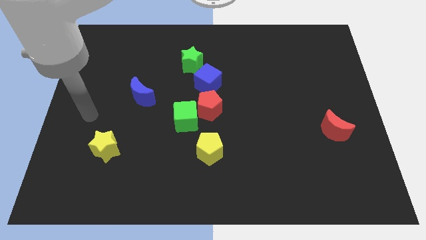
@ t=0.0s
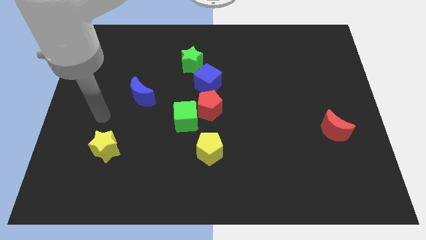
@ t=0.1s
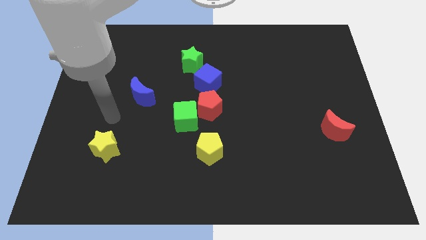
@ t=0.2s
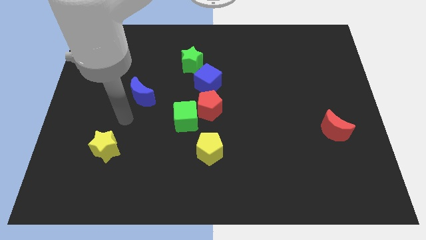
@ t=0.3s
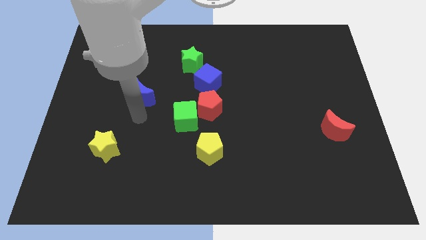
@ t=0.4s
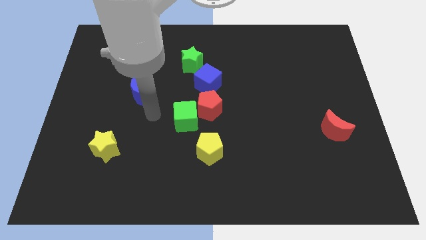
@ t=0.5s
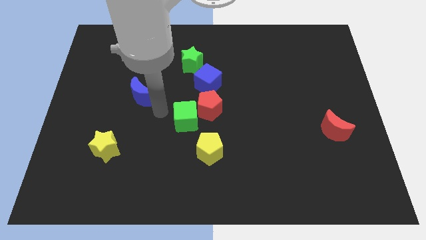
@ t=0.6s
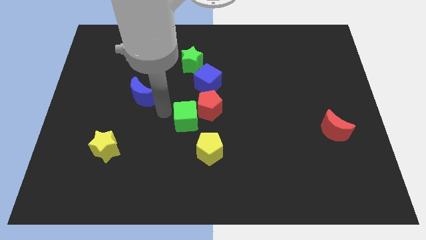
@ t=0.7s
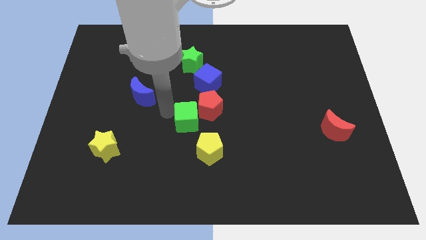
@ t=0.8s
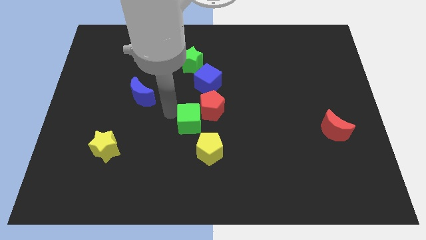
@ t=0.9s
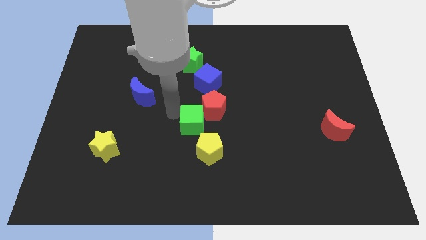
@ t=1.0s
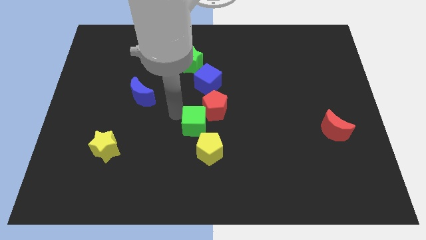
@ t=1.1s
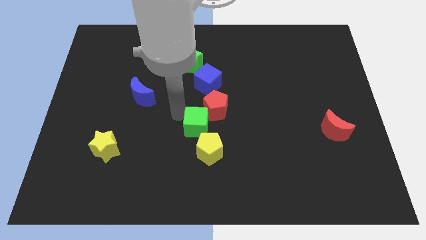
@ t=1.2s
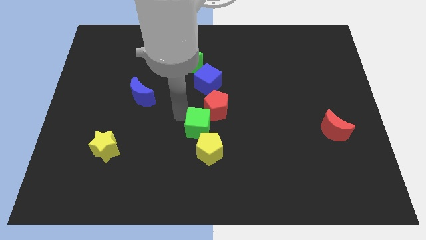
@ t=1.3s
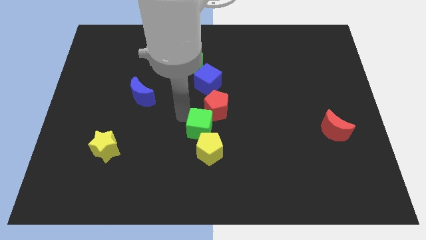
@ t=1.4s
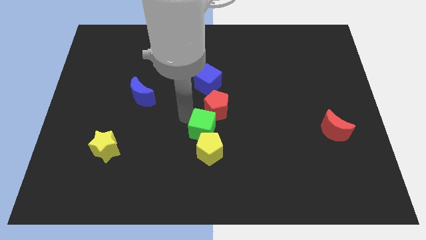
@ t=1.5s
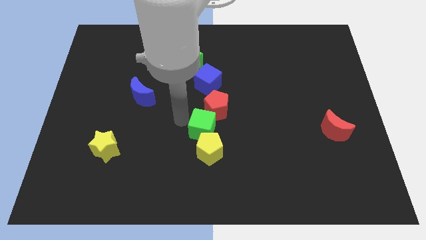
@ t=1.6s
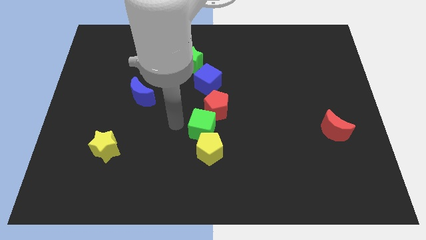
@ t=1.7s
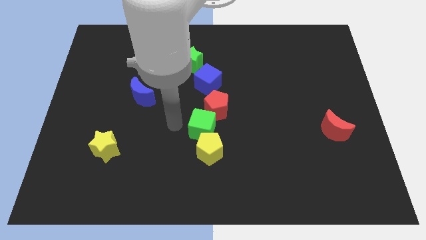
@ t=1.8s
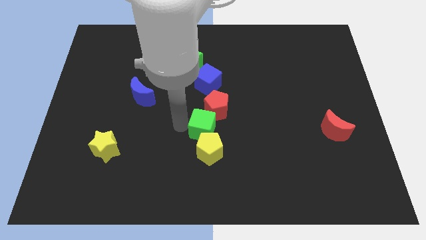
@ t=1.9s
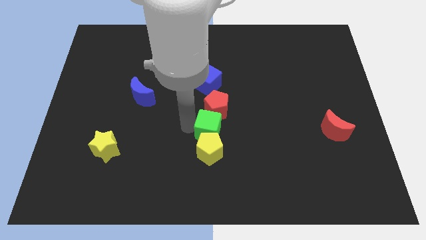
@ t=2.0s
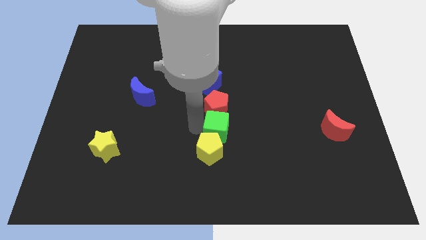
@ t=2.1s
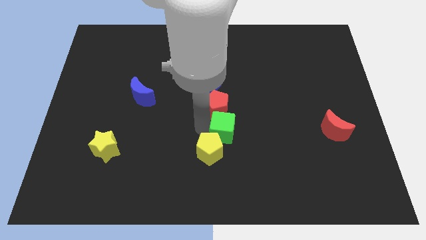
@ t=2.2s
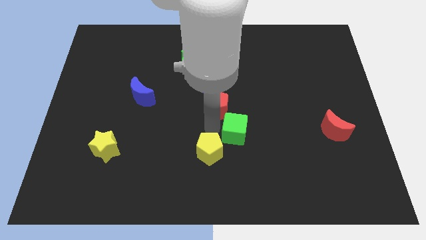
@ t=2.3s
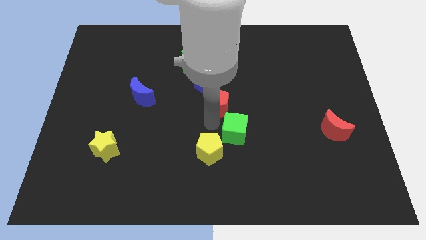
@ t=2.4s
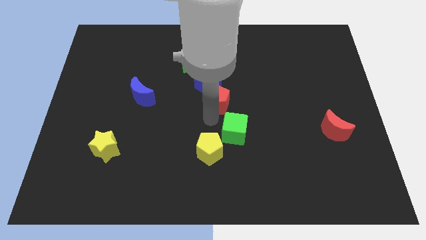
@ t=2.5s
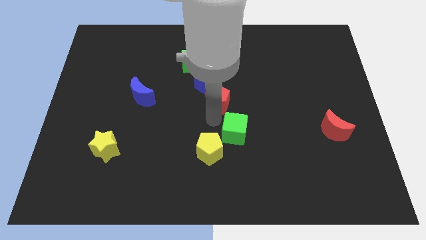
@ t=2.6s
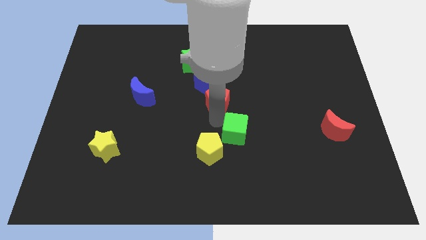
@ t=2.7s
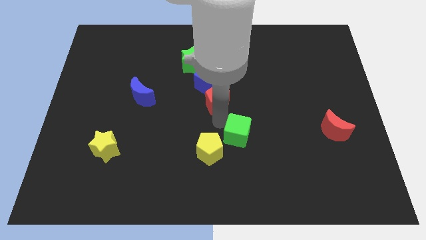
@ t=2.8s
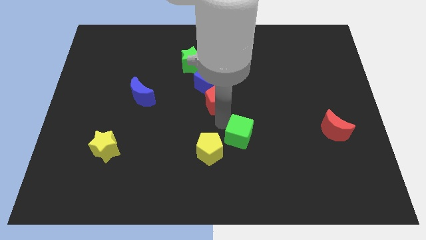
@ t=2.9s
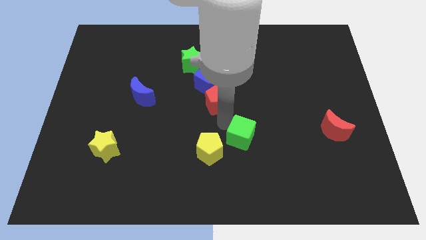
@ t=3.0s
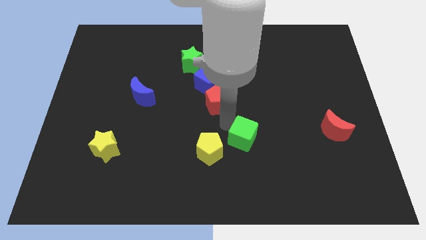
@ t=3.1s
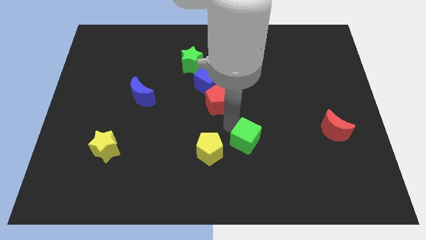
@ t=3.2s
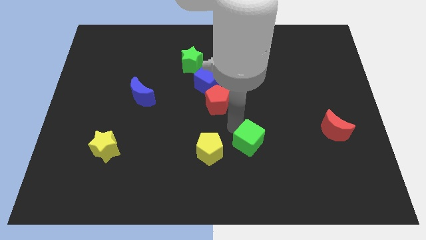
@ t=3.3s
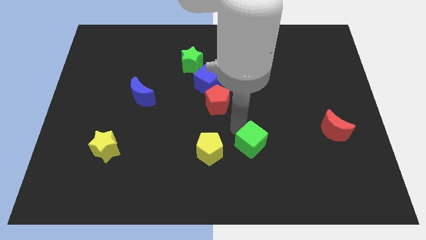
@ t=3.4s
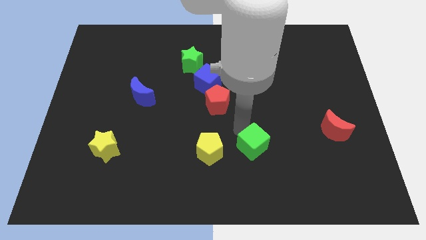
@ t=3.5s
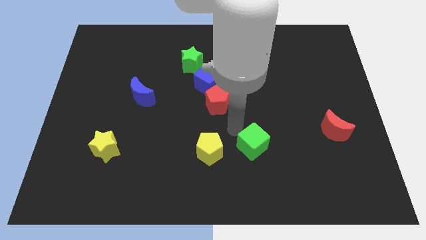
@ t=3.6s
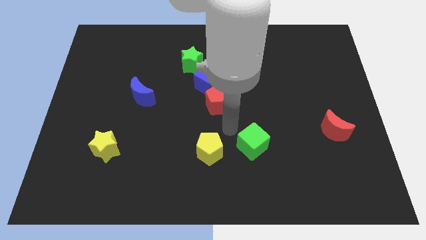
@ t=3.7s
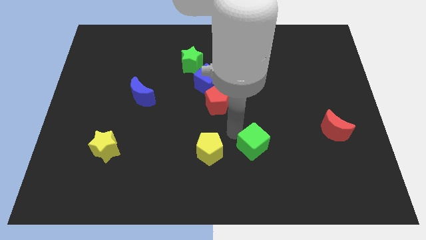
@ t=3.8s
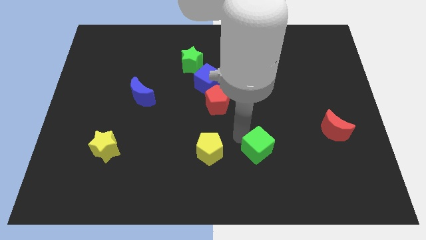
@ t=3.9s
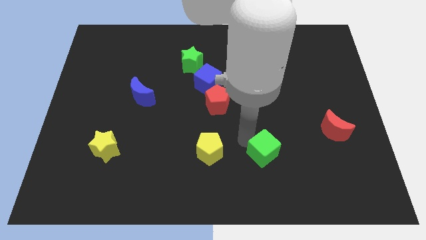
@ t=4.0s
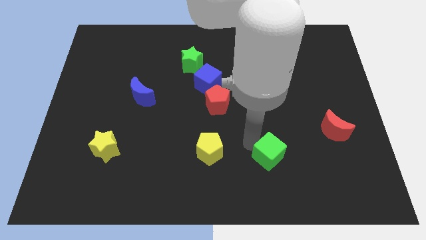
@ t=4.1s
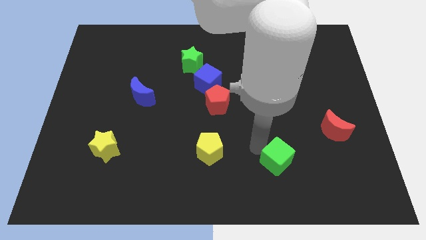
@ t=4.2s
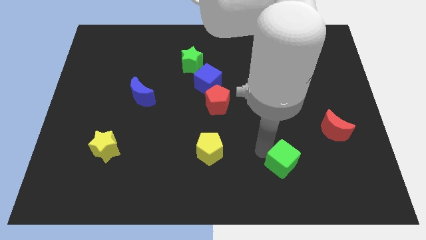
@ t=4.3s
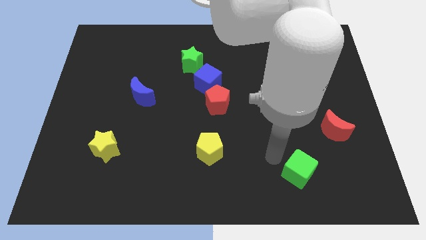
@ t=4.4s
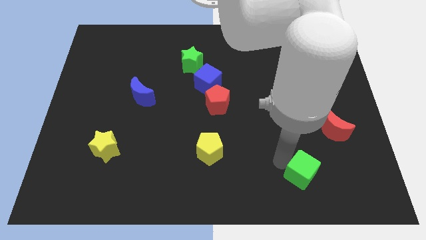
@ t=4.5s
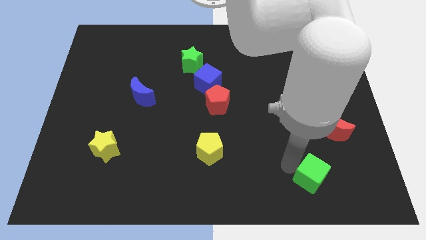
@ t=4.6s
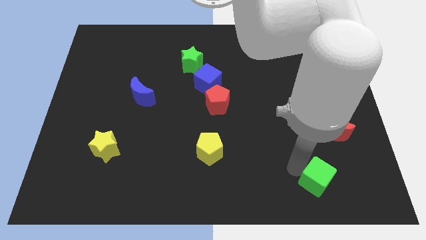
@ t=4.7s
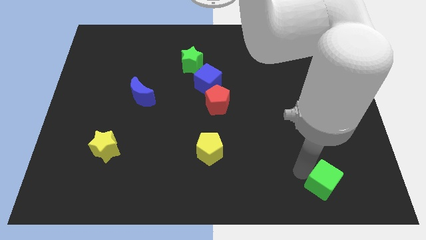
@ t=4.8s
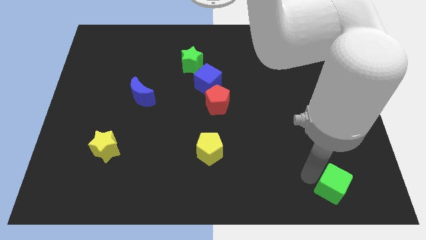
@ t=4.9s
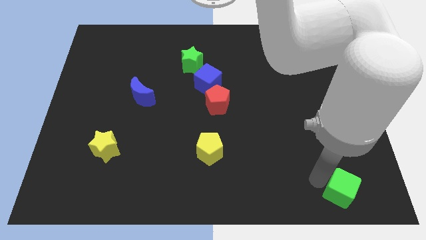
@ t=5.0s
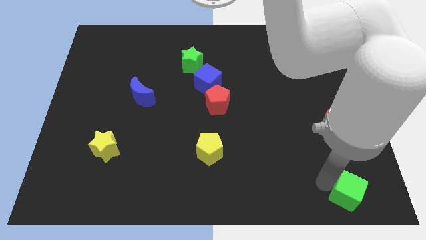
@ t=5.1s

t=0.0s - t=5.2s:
move the green cube to the bottom right of the board

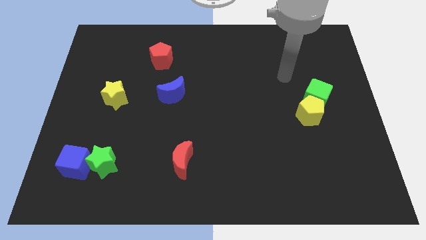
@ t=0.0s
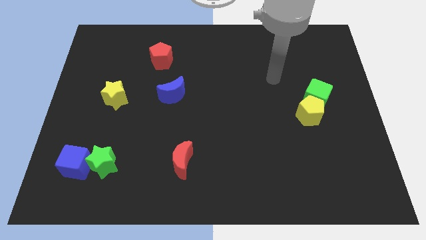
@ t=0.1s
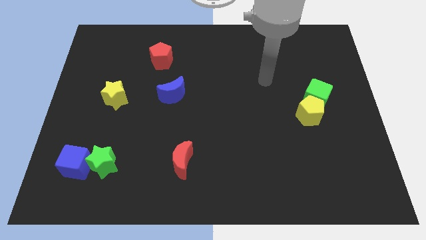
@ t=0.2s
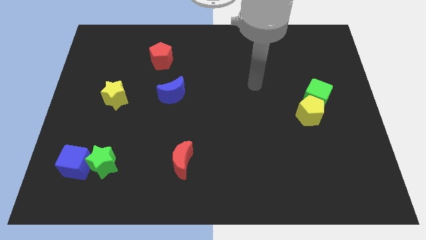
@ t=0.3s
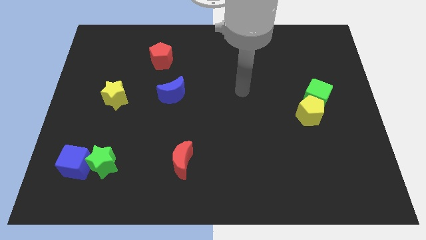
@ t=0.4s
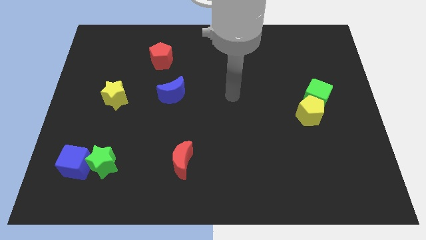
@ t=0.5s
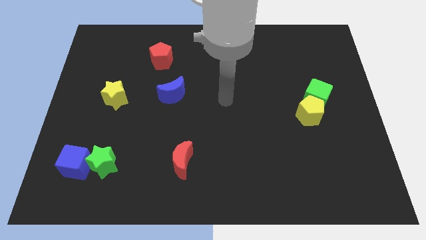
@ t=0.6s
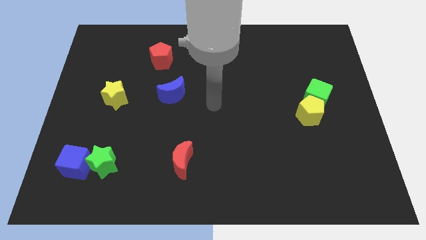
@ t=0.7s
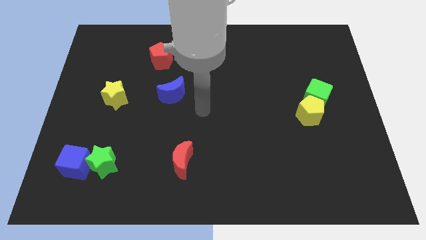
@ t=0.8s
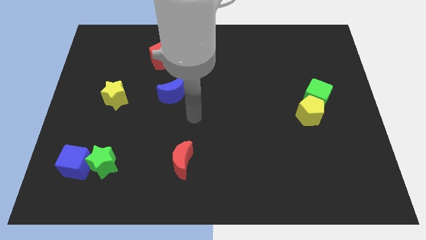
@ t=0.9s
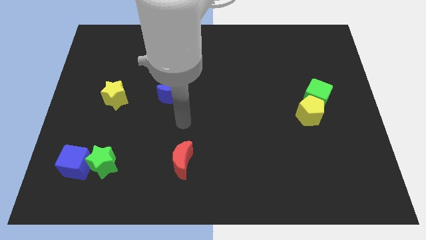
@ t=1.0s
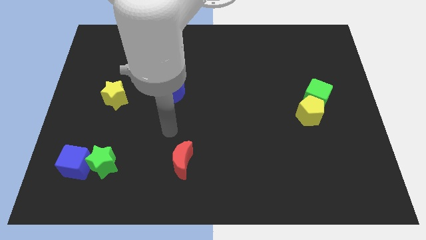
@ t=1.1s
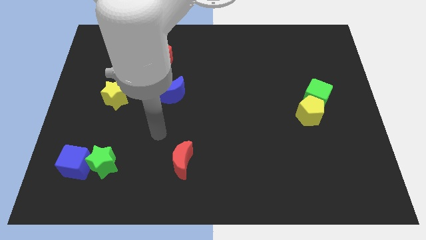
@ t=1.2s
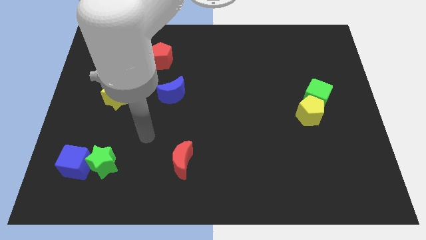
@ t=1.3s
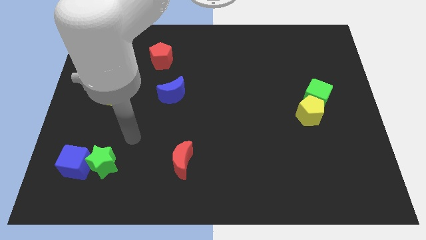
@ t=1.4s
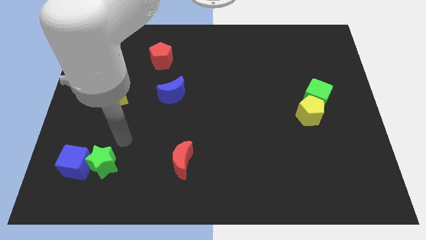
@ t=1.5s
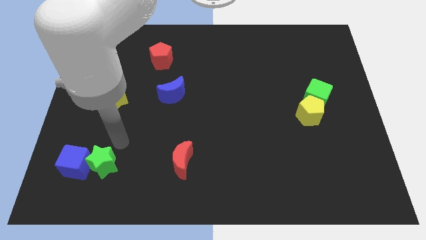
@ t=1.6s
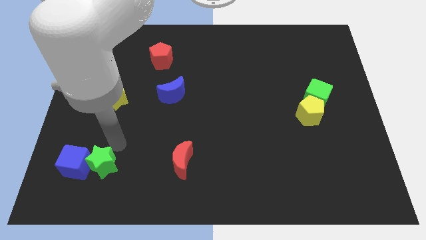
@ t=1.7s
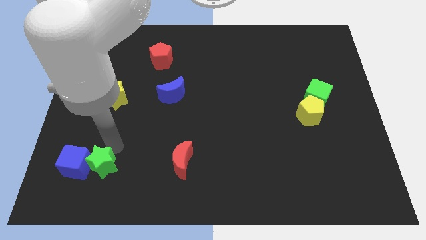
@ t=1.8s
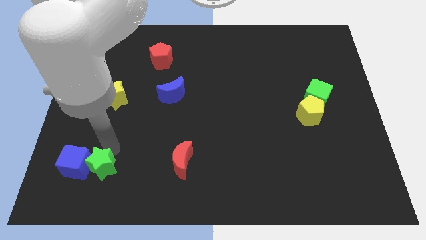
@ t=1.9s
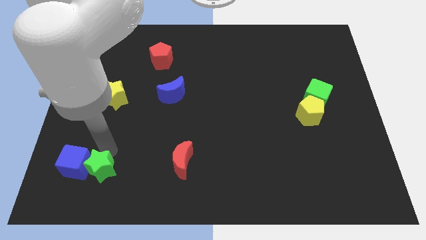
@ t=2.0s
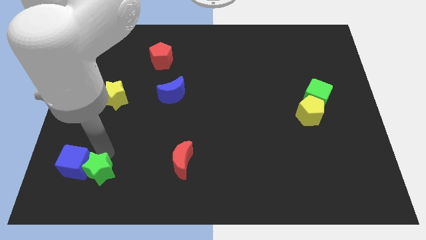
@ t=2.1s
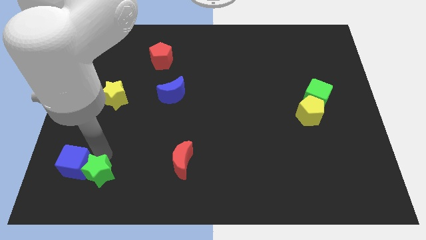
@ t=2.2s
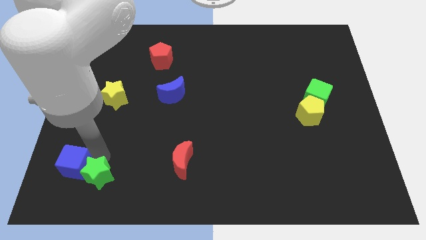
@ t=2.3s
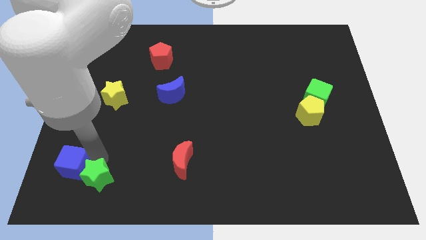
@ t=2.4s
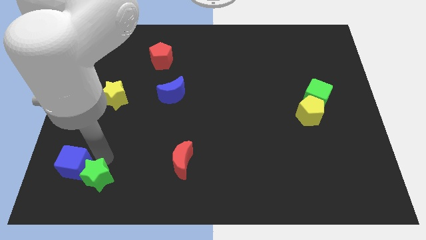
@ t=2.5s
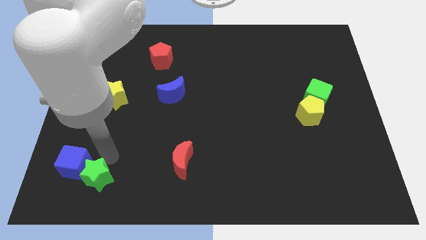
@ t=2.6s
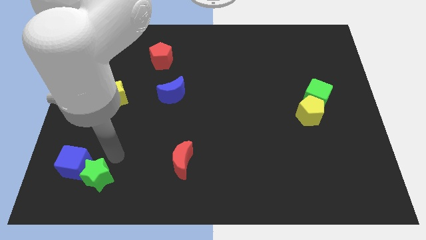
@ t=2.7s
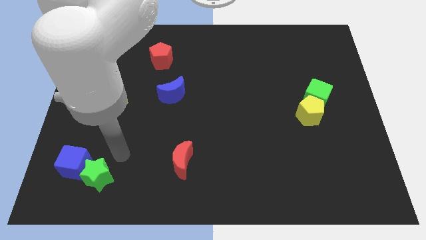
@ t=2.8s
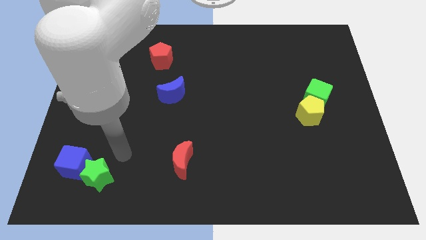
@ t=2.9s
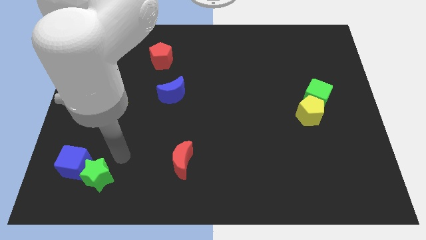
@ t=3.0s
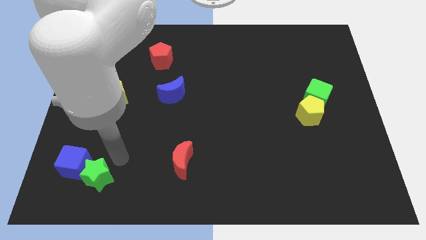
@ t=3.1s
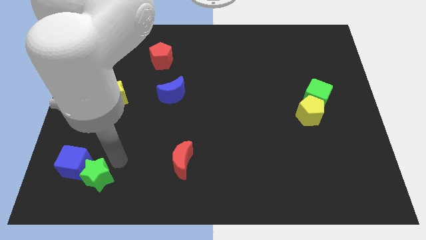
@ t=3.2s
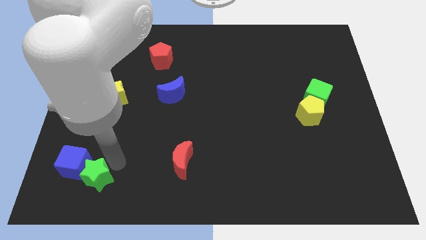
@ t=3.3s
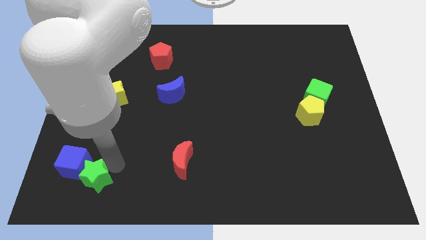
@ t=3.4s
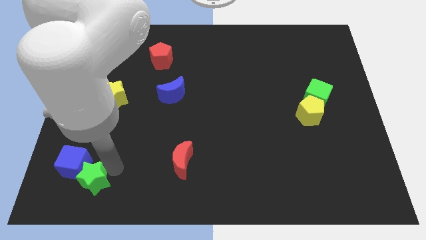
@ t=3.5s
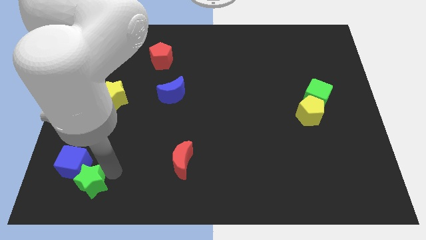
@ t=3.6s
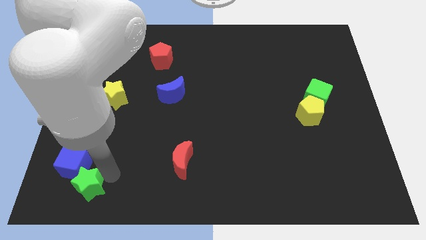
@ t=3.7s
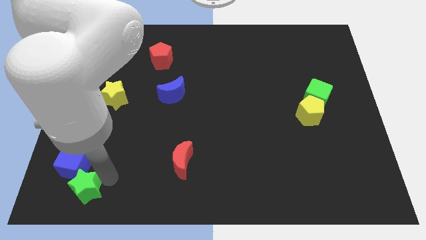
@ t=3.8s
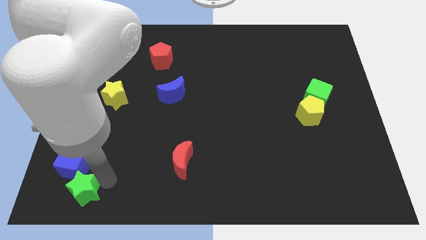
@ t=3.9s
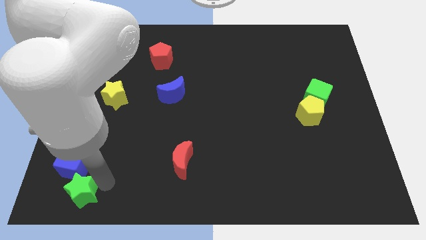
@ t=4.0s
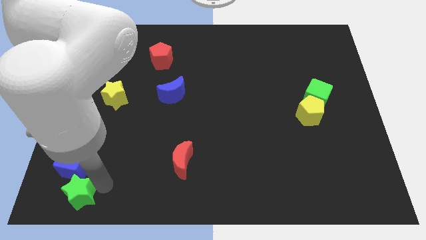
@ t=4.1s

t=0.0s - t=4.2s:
push the green star to the lower left corner
